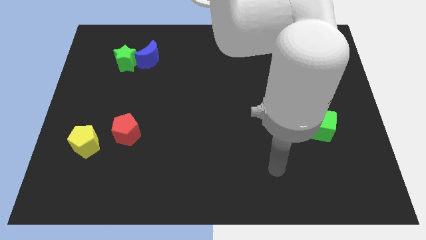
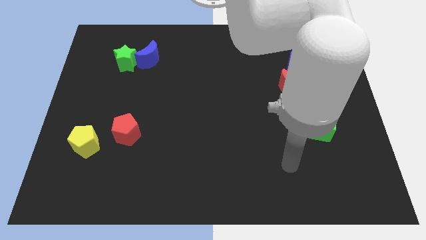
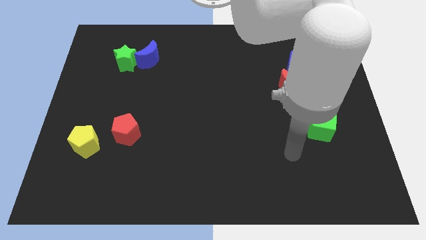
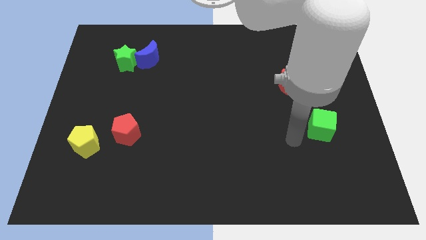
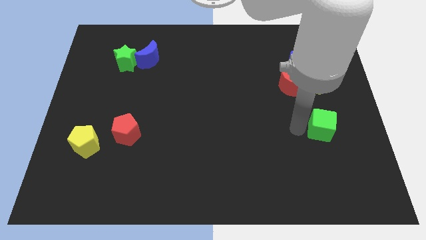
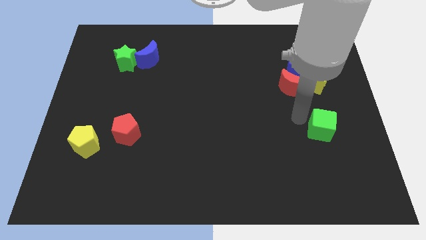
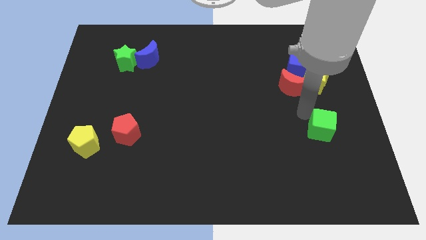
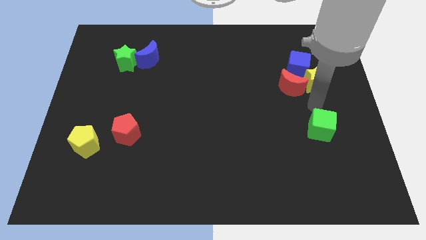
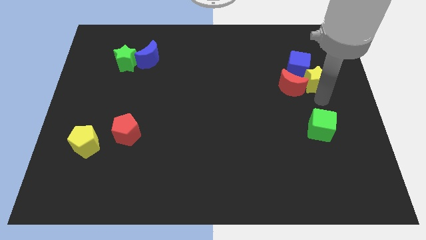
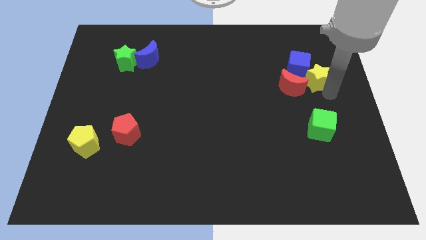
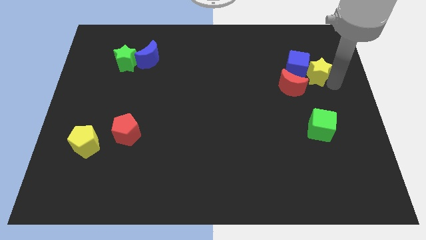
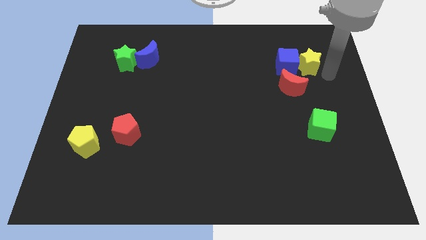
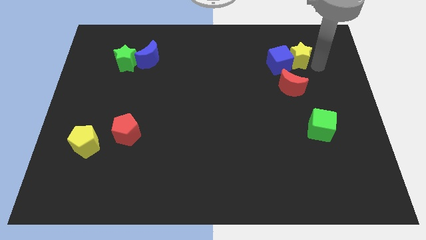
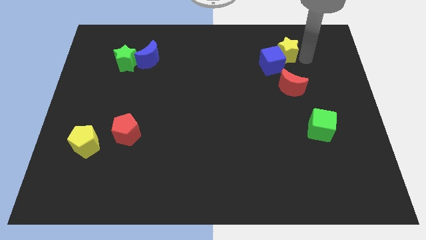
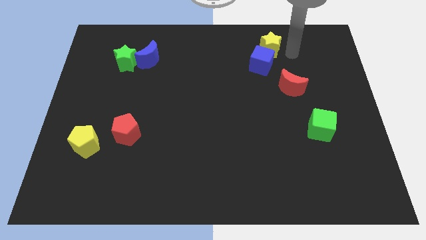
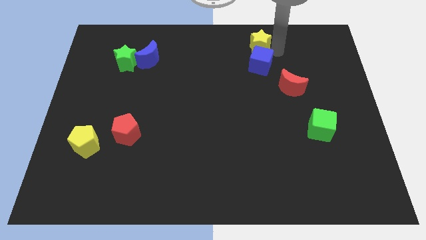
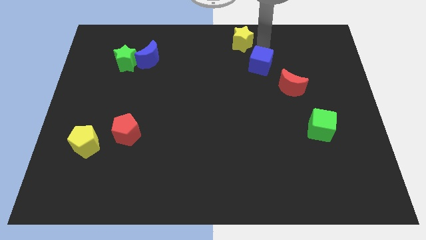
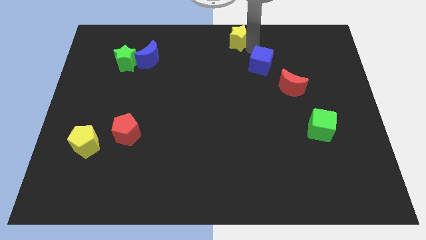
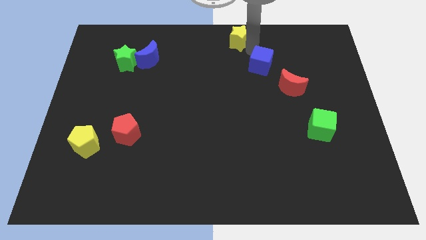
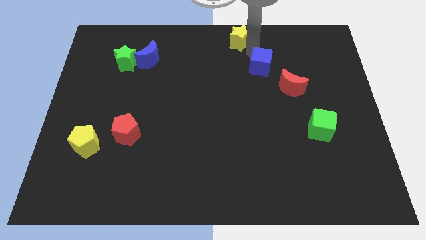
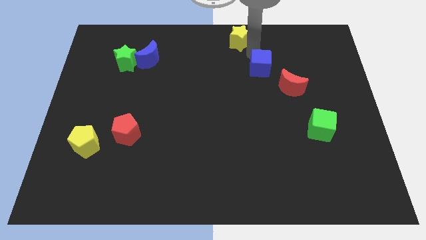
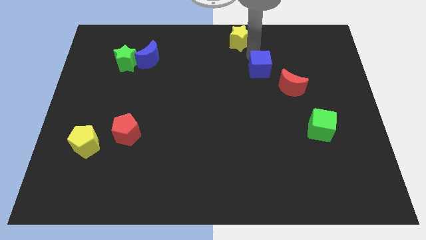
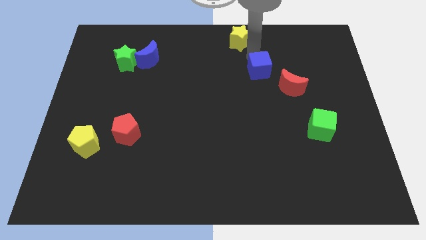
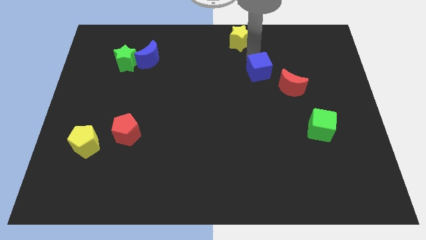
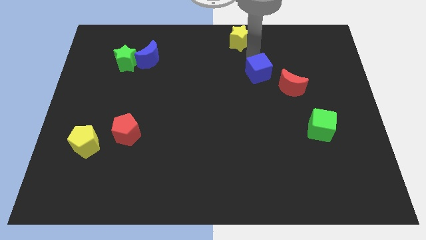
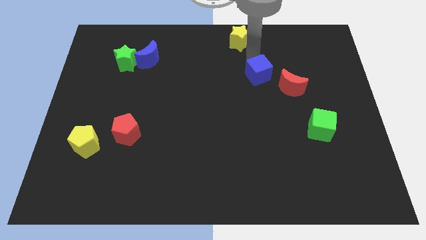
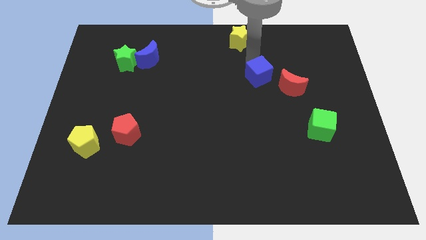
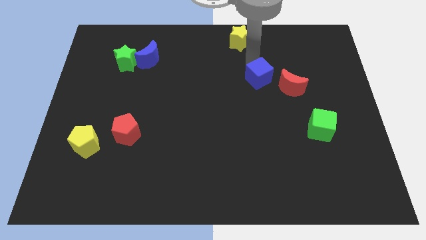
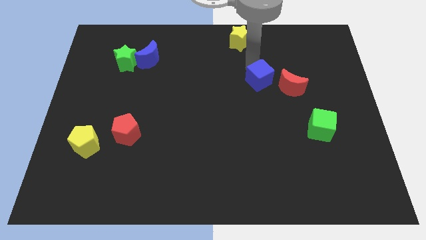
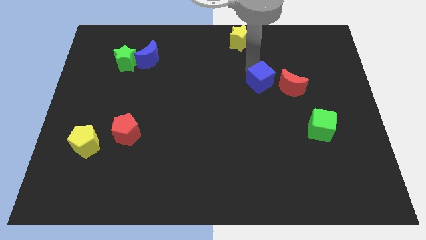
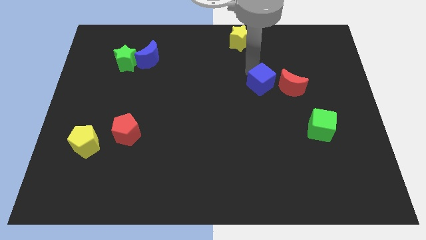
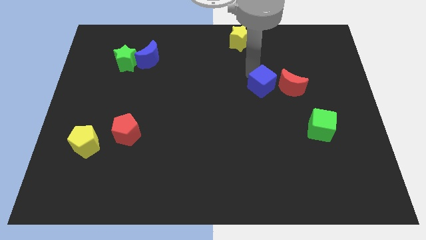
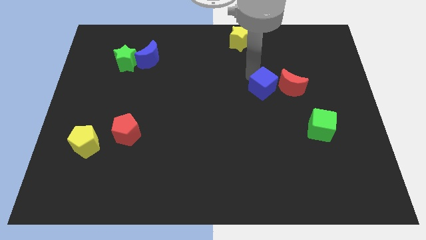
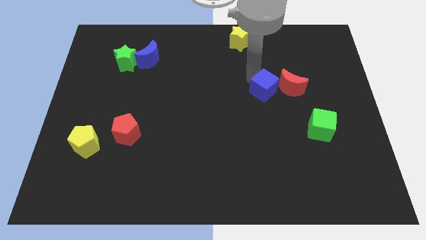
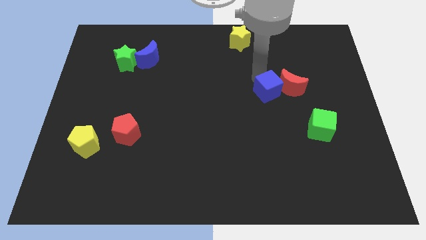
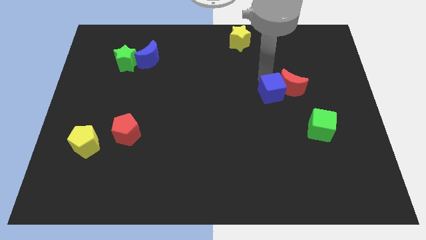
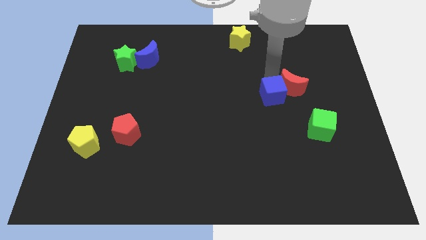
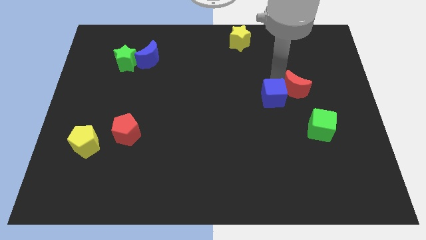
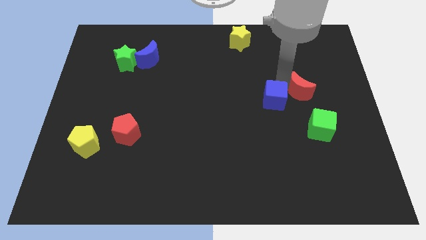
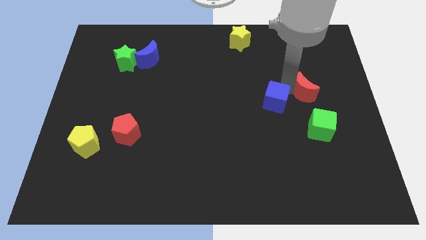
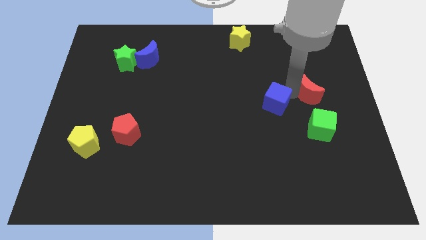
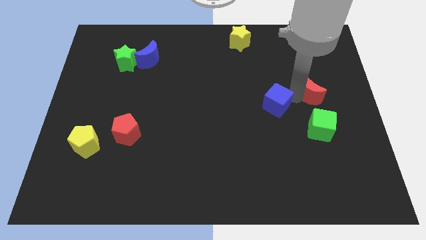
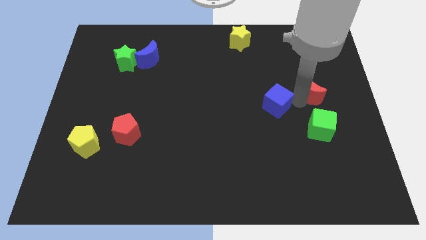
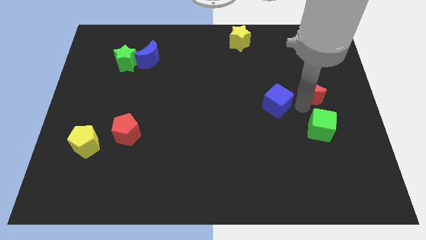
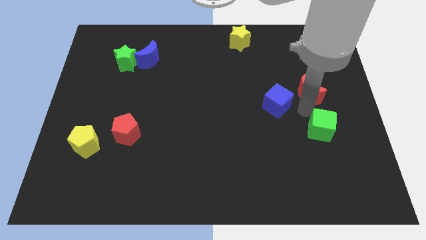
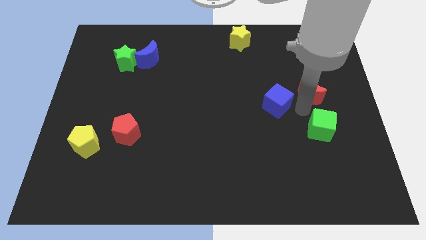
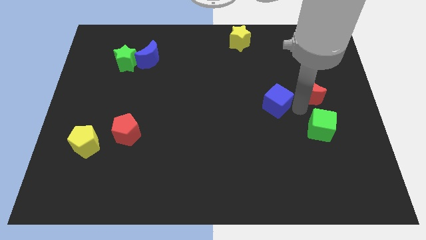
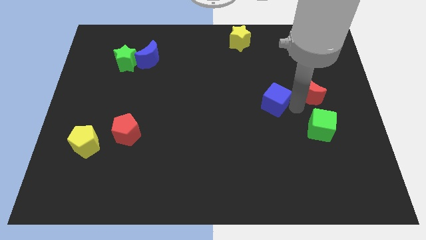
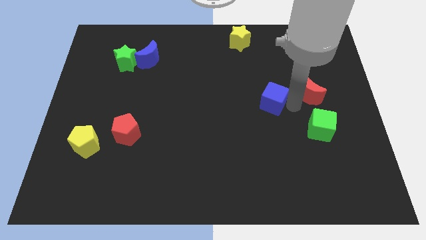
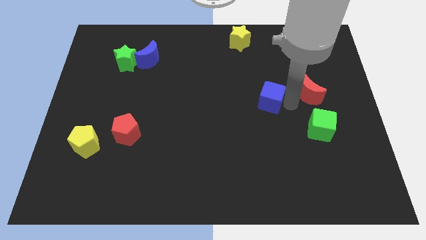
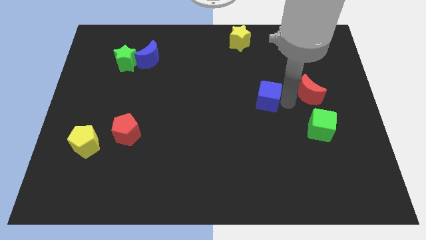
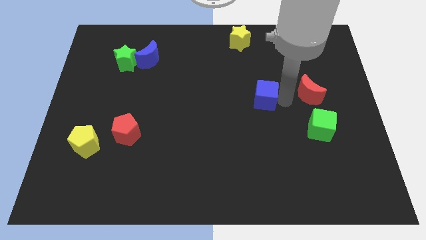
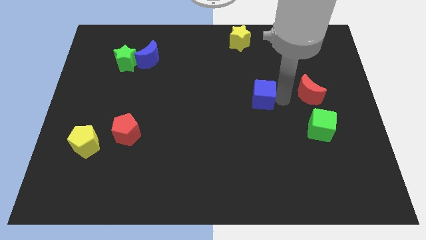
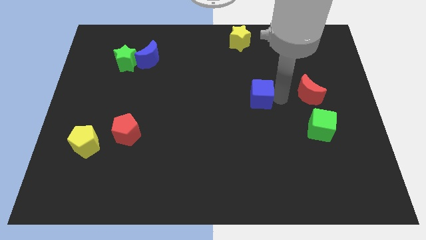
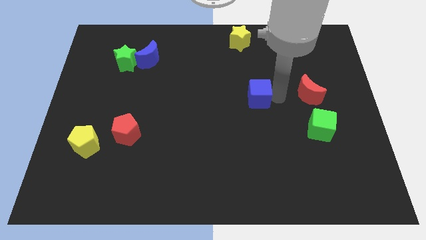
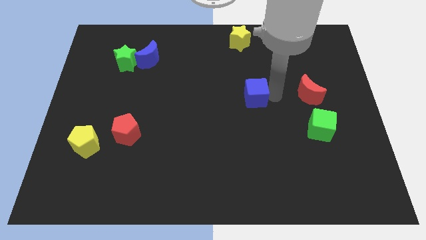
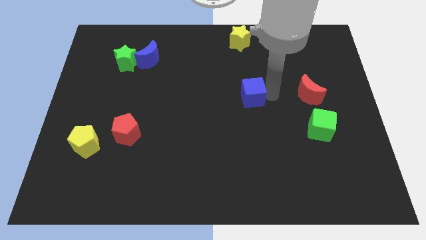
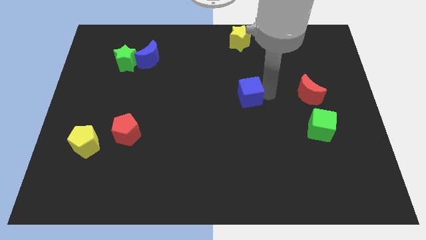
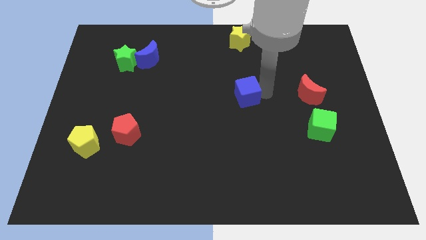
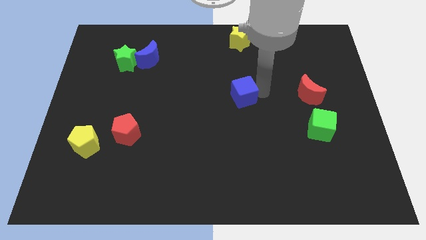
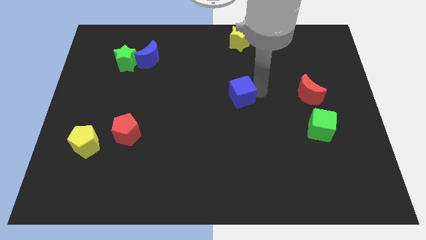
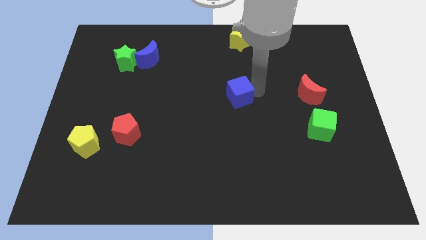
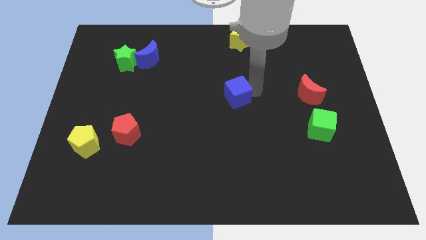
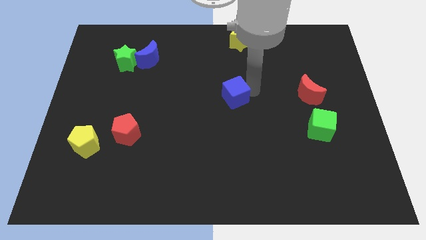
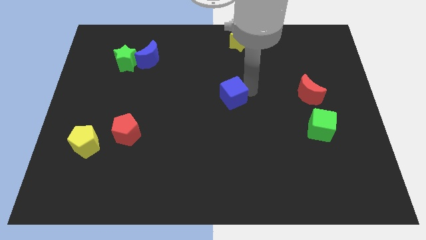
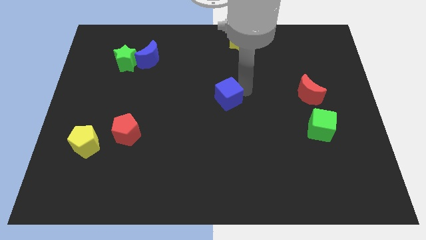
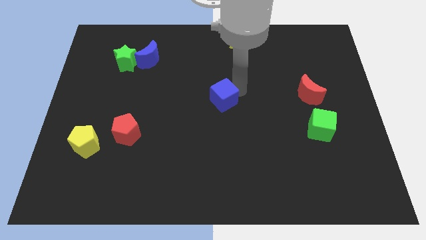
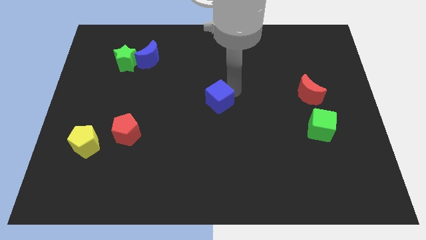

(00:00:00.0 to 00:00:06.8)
move the blue cube down and to the left

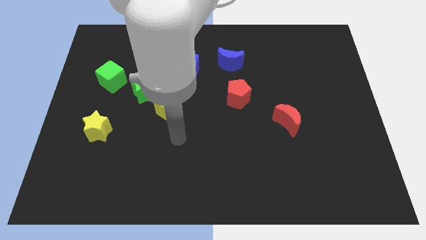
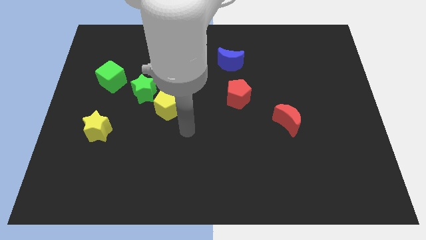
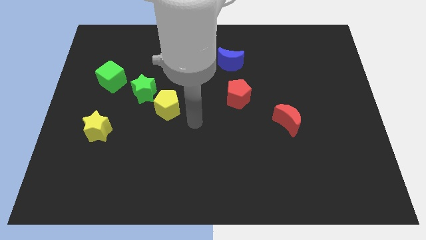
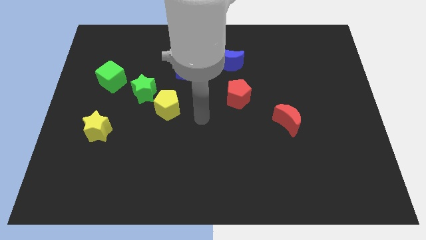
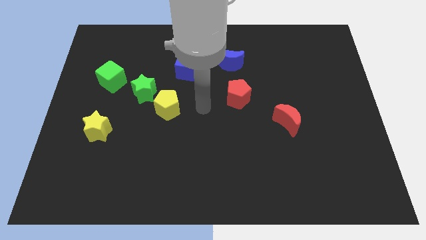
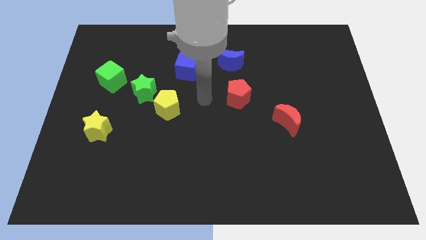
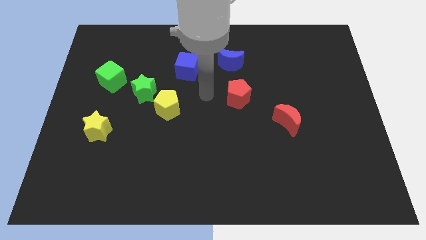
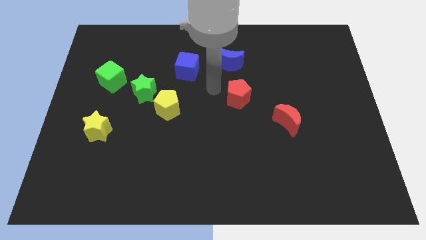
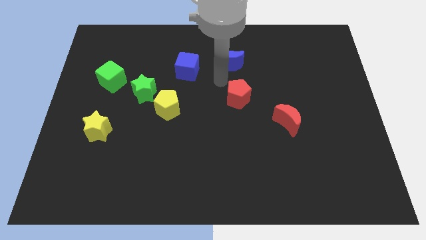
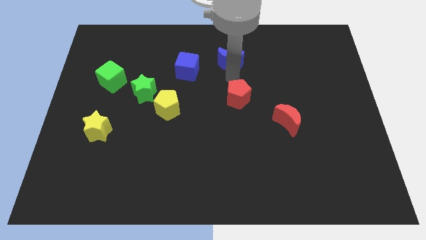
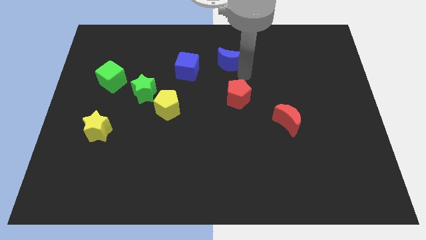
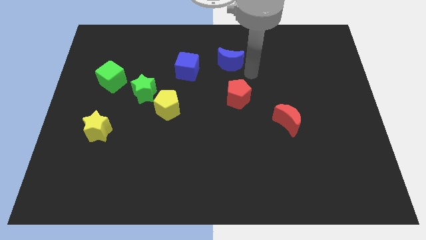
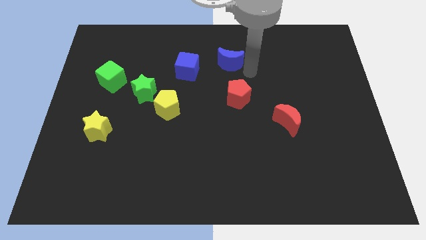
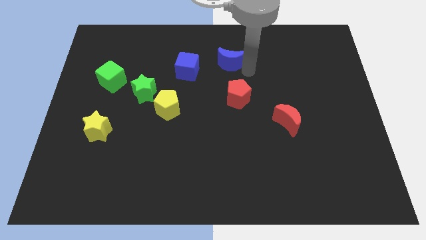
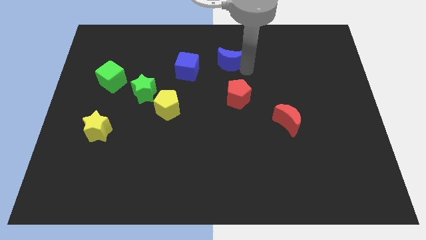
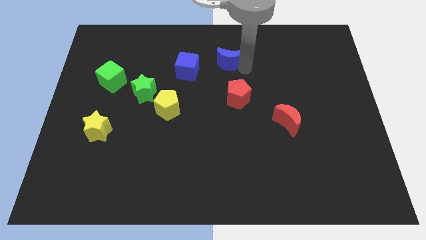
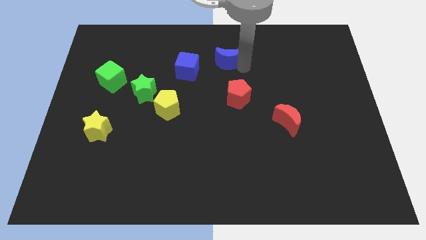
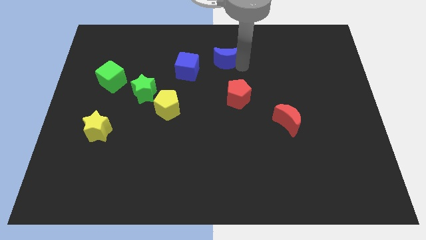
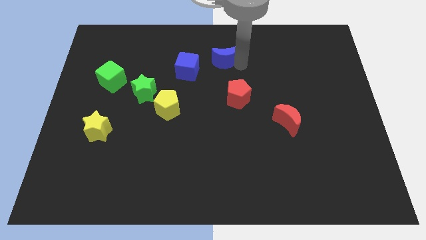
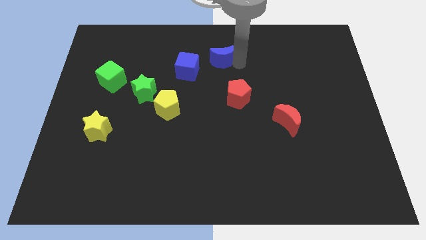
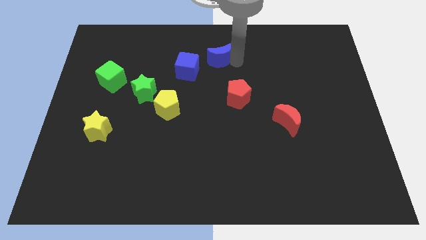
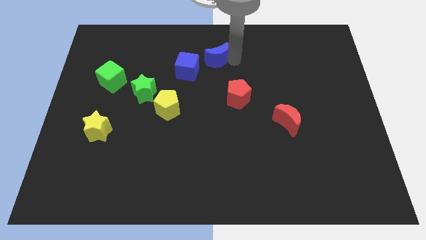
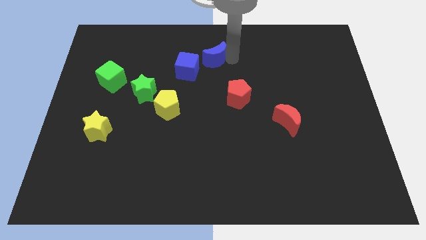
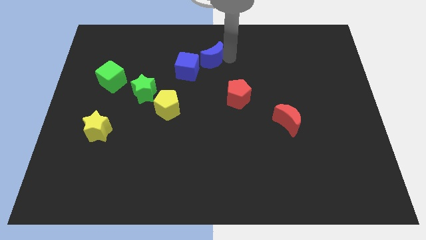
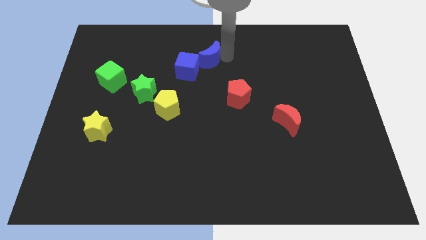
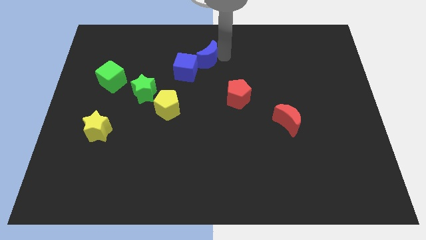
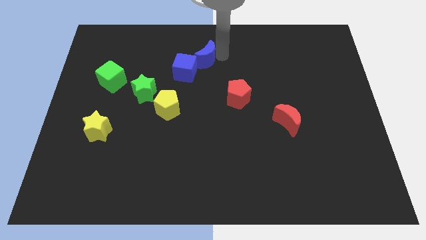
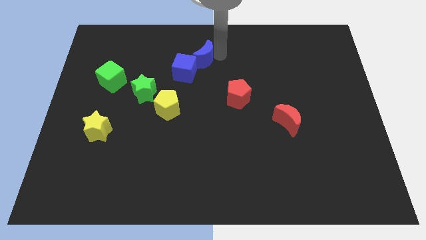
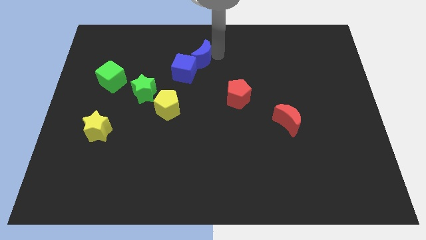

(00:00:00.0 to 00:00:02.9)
move the blue moon to the left a bit
